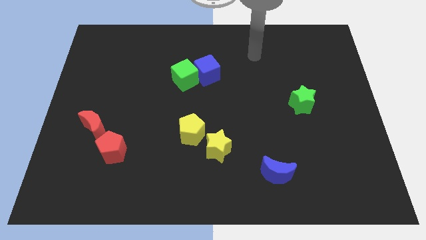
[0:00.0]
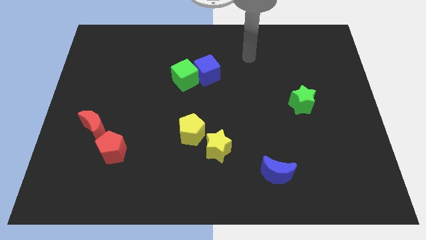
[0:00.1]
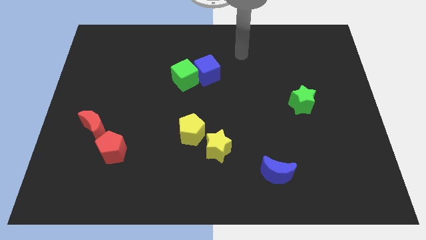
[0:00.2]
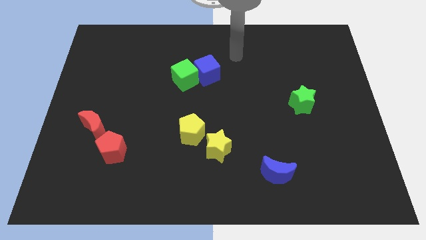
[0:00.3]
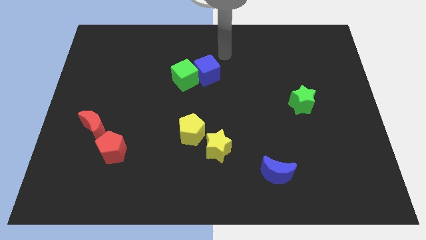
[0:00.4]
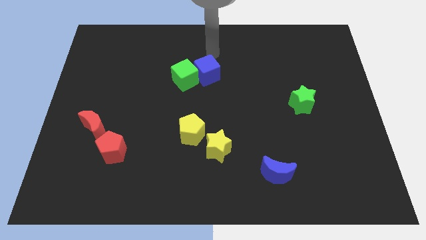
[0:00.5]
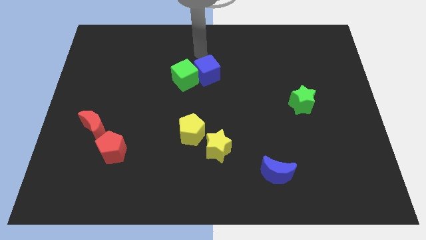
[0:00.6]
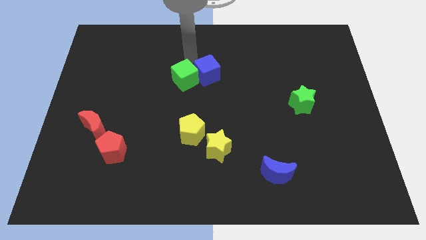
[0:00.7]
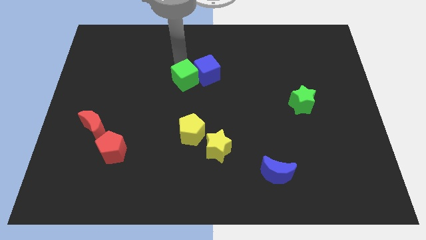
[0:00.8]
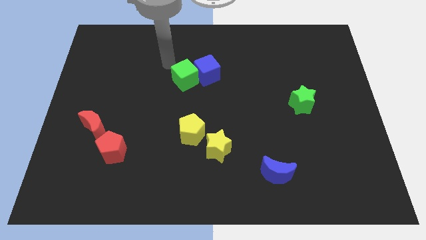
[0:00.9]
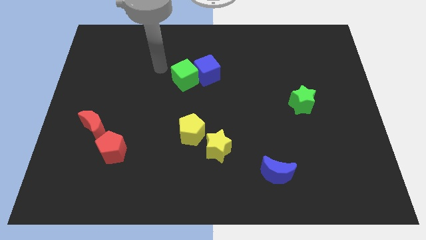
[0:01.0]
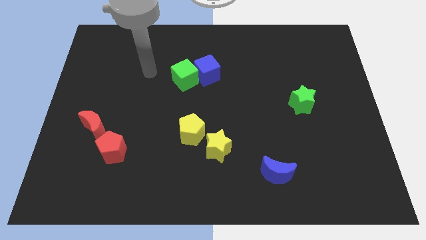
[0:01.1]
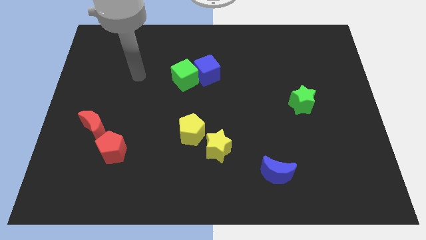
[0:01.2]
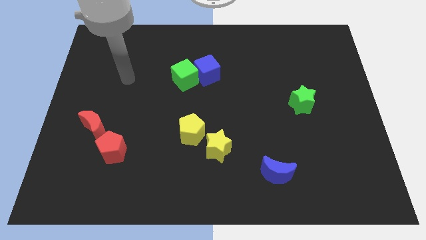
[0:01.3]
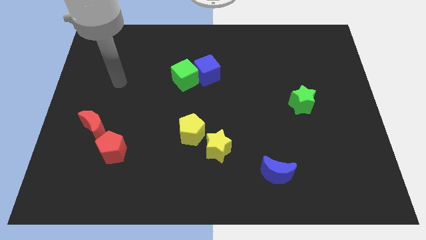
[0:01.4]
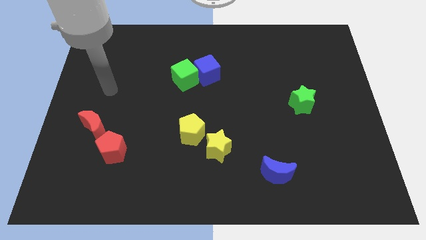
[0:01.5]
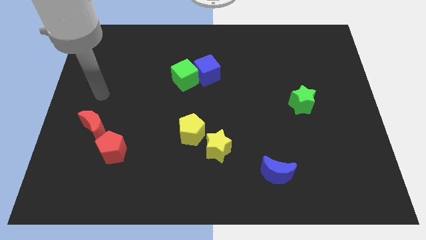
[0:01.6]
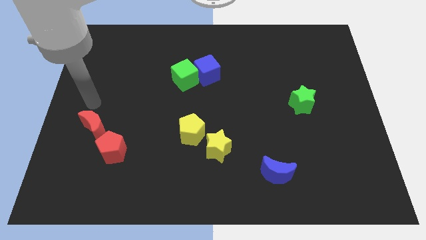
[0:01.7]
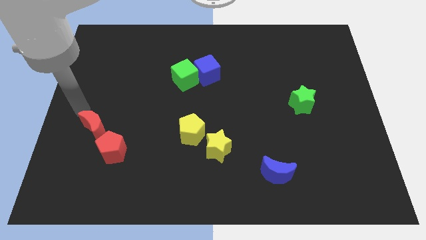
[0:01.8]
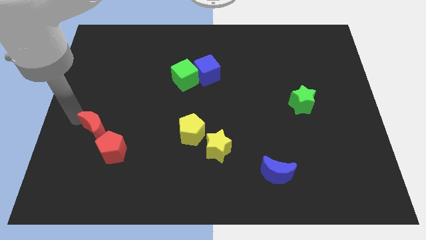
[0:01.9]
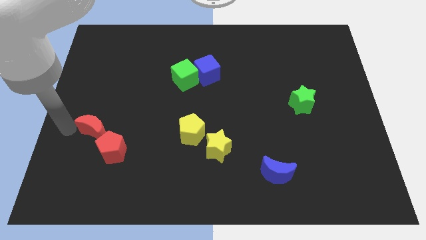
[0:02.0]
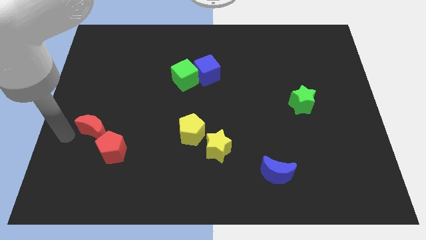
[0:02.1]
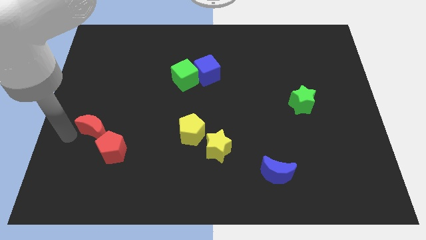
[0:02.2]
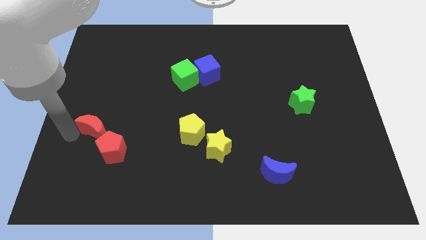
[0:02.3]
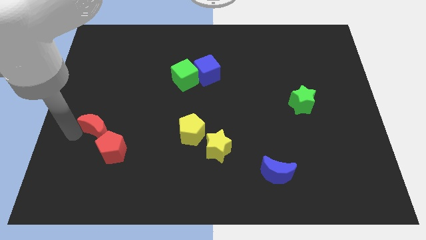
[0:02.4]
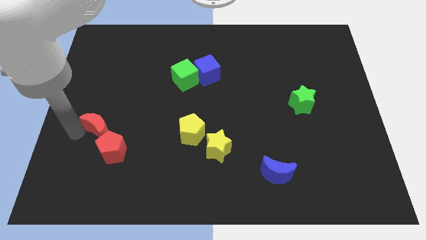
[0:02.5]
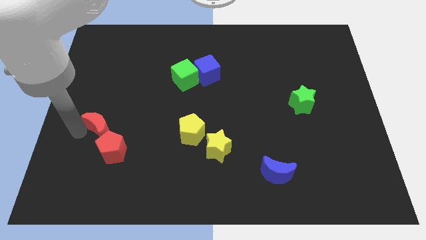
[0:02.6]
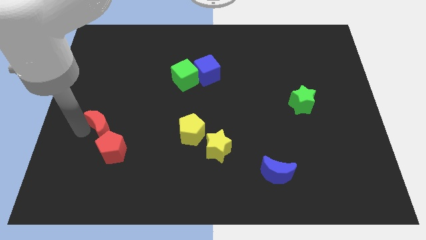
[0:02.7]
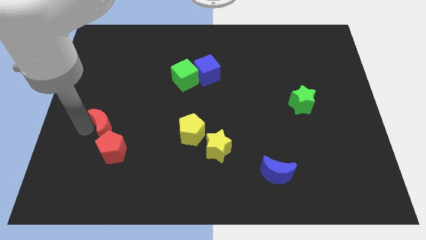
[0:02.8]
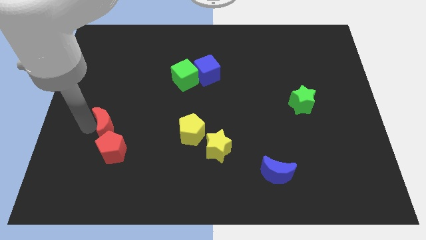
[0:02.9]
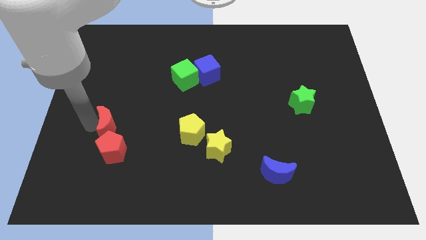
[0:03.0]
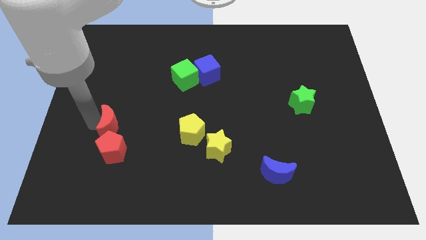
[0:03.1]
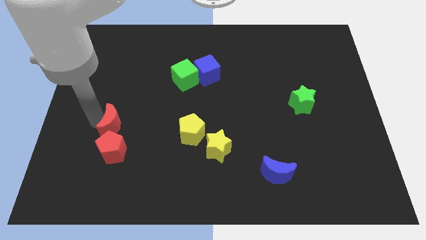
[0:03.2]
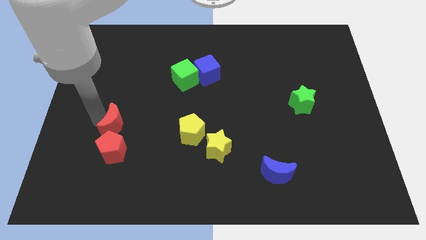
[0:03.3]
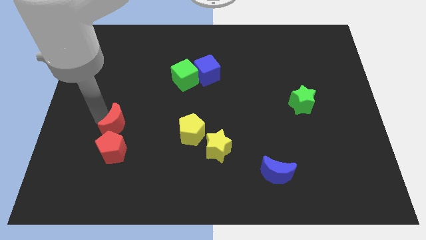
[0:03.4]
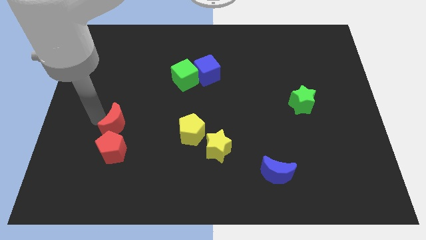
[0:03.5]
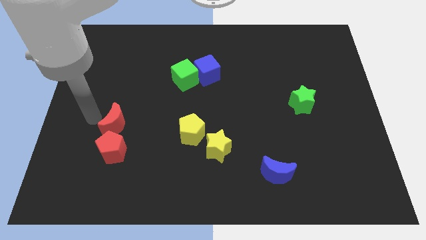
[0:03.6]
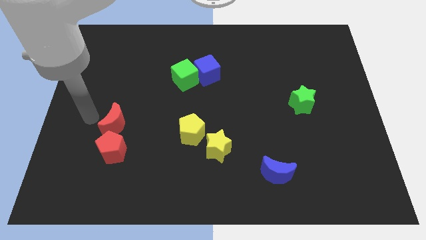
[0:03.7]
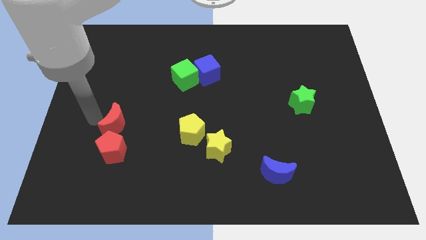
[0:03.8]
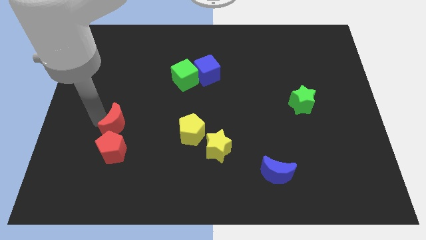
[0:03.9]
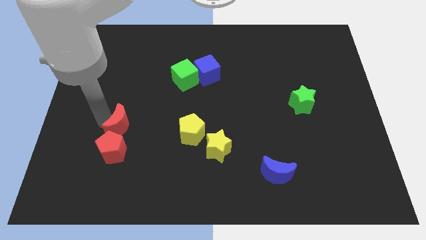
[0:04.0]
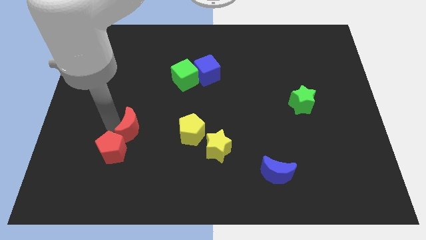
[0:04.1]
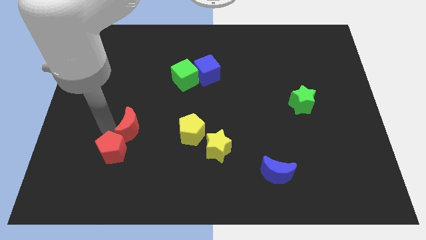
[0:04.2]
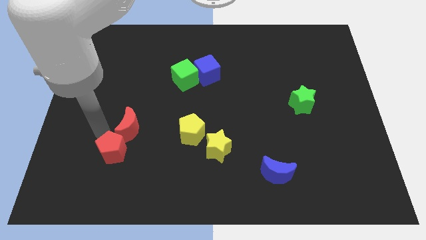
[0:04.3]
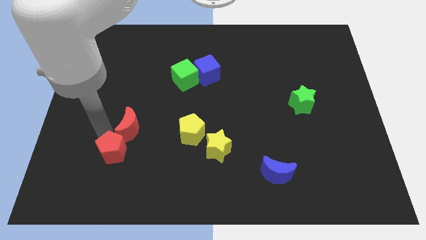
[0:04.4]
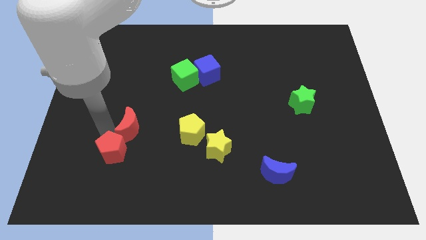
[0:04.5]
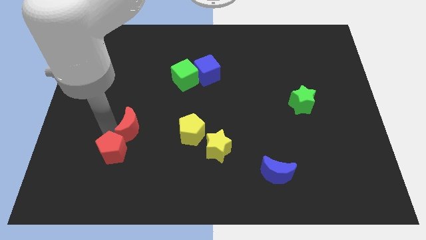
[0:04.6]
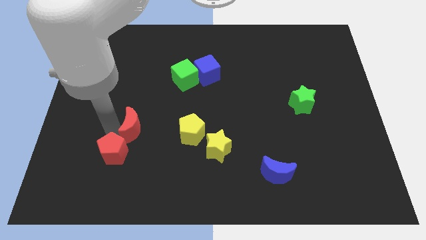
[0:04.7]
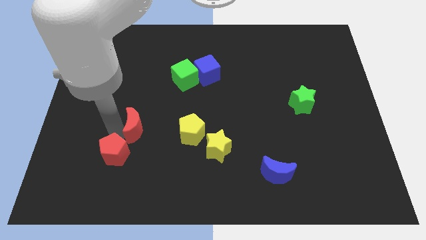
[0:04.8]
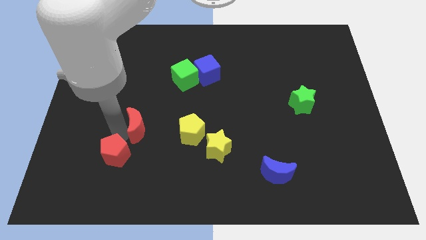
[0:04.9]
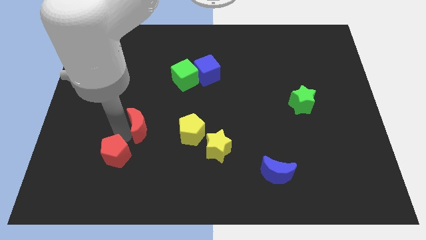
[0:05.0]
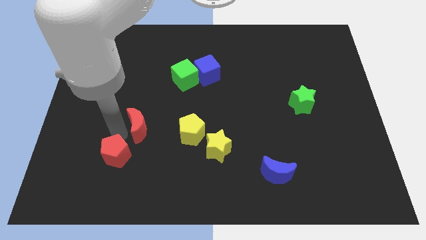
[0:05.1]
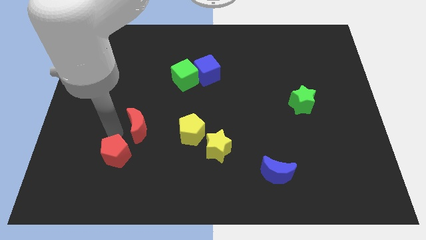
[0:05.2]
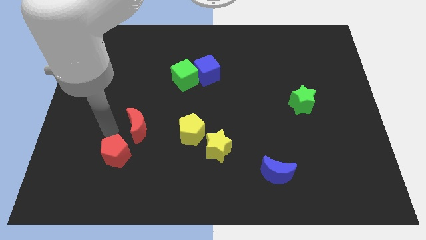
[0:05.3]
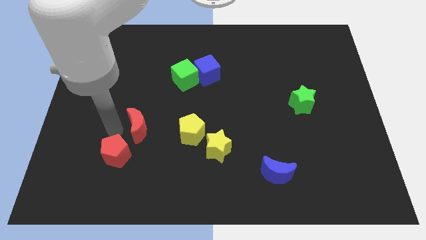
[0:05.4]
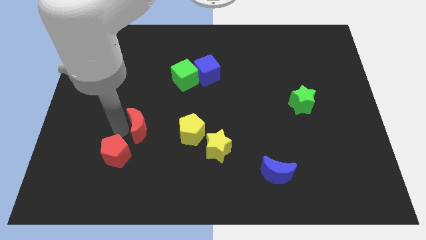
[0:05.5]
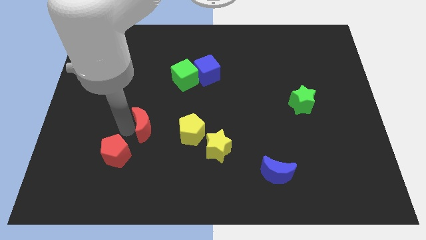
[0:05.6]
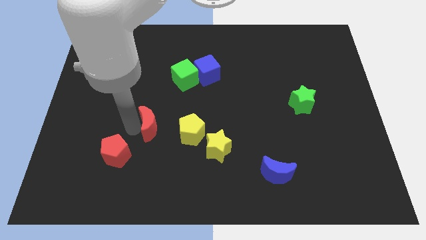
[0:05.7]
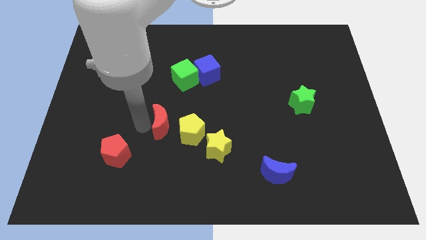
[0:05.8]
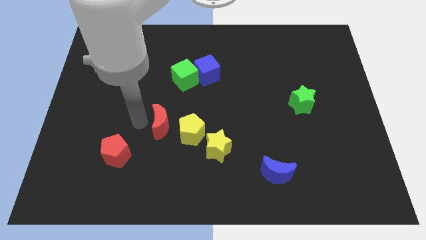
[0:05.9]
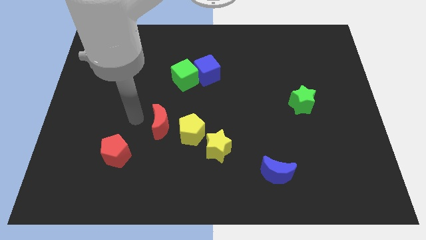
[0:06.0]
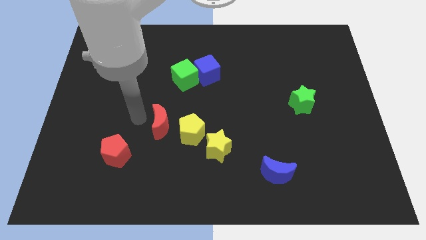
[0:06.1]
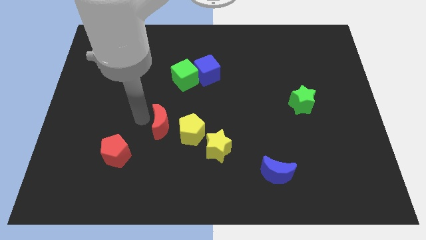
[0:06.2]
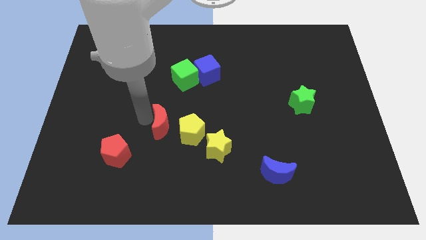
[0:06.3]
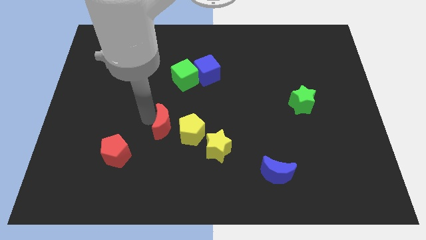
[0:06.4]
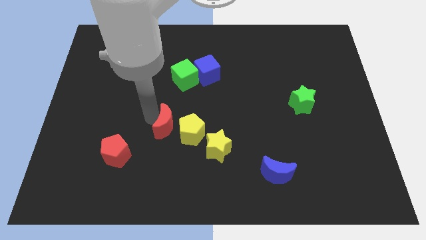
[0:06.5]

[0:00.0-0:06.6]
put the red moon towards the yellow pentagon

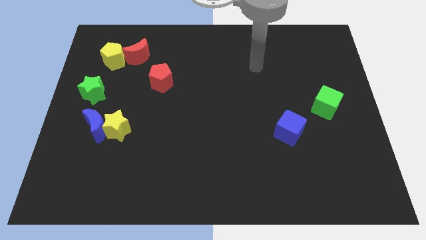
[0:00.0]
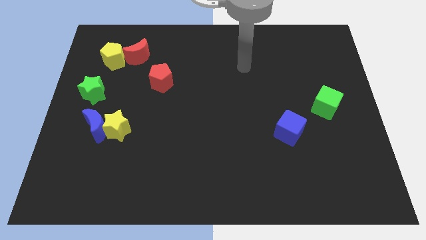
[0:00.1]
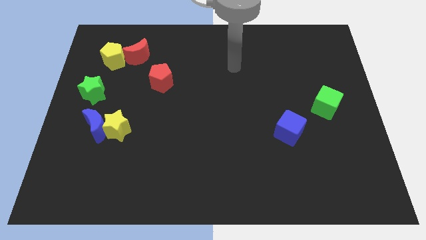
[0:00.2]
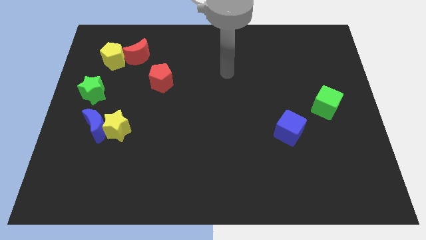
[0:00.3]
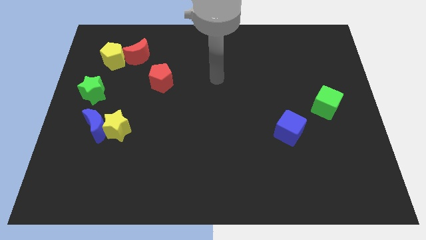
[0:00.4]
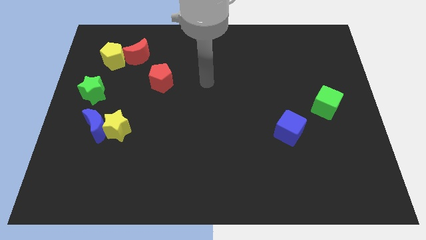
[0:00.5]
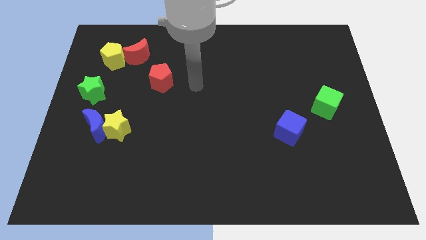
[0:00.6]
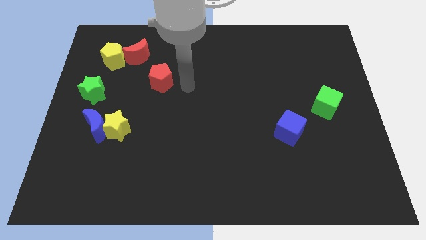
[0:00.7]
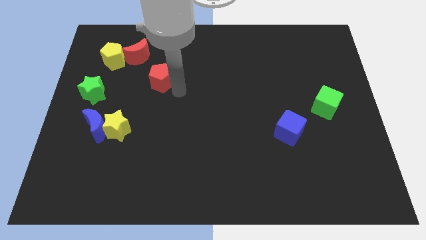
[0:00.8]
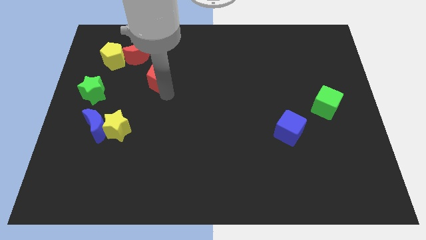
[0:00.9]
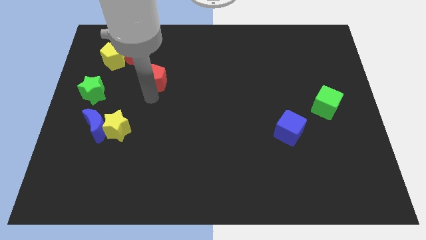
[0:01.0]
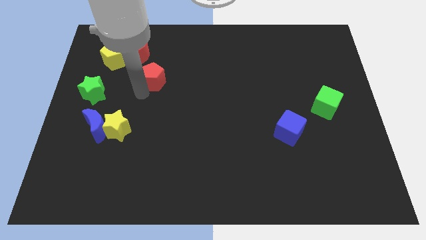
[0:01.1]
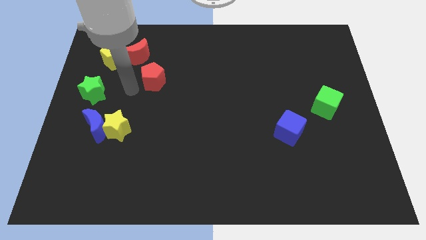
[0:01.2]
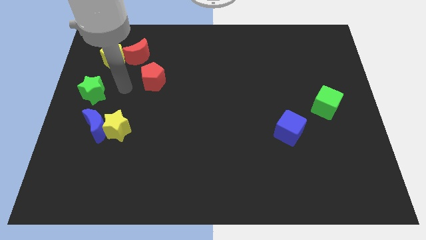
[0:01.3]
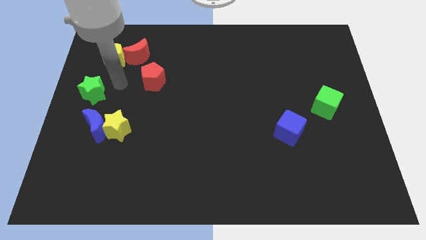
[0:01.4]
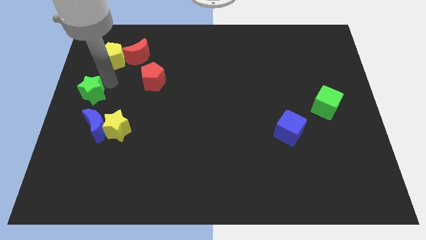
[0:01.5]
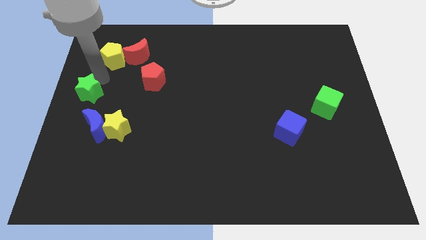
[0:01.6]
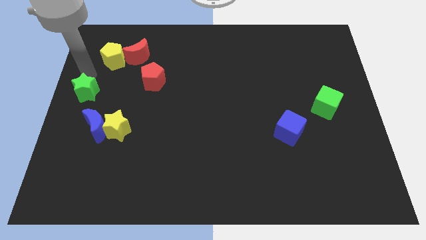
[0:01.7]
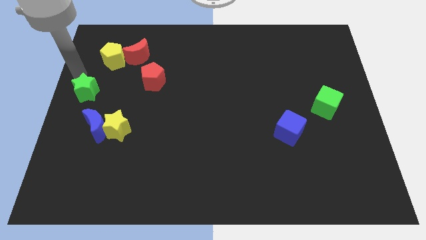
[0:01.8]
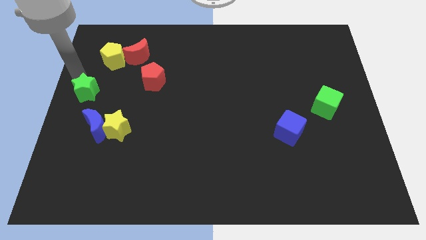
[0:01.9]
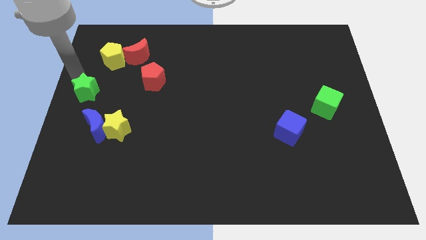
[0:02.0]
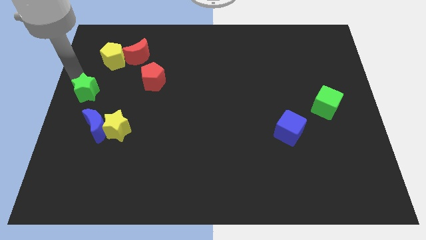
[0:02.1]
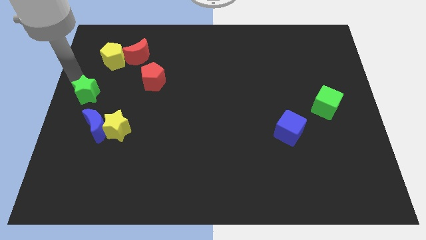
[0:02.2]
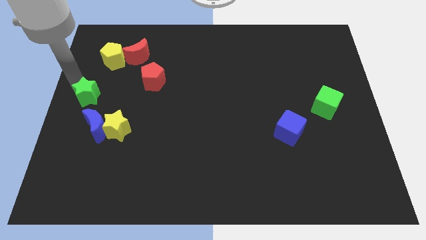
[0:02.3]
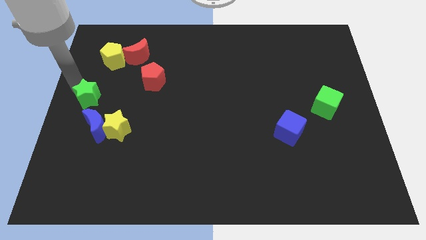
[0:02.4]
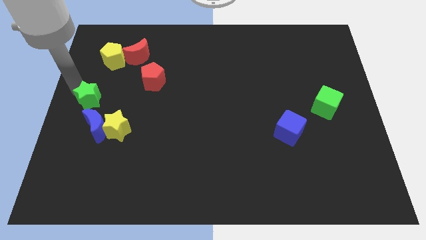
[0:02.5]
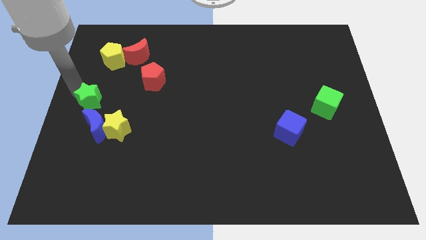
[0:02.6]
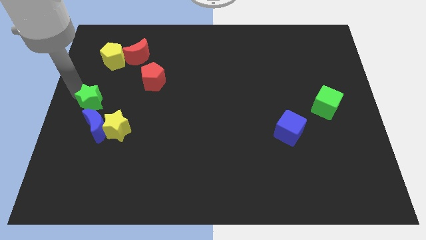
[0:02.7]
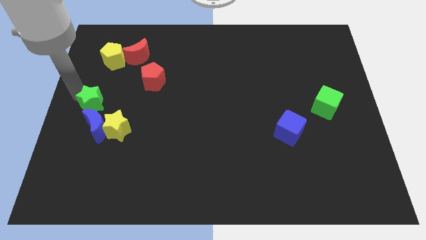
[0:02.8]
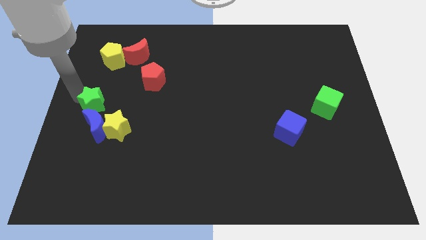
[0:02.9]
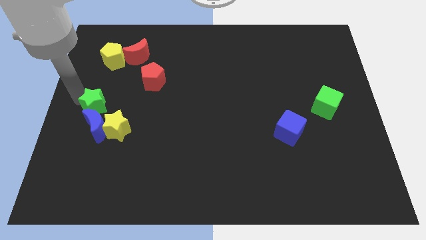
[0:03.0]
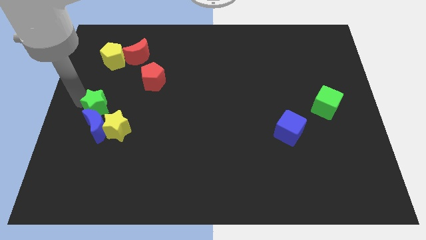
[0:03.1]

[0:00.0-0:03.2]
push the green star close to the blue moon
